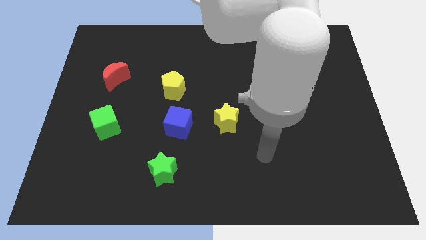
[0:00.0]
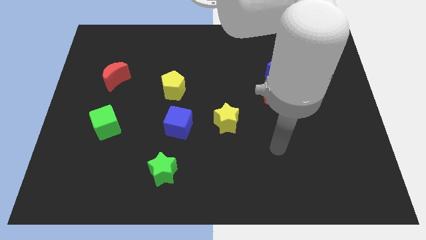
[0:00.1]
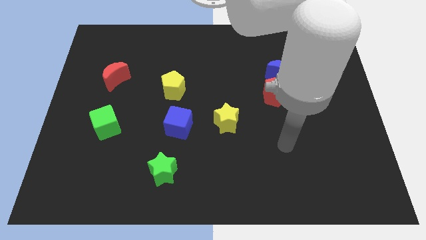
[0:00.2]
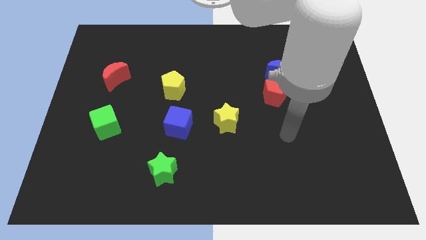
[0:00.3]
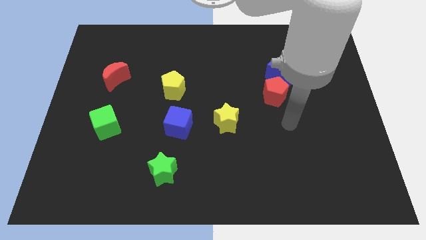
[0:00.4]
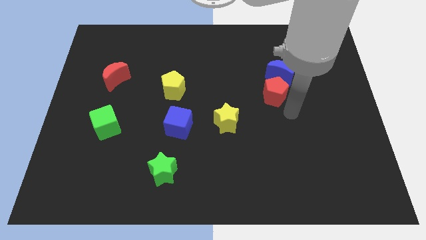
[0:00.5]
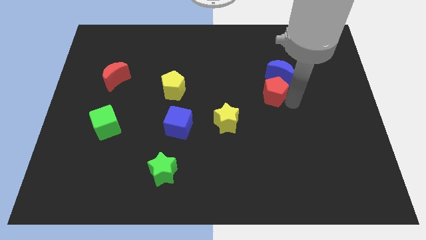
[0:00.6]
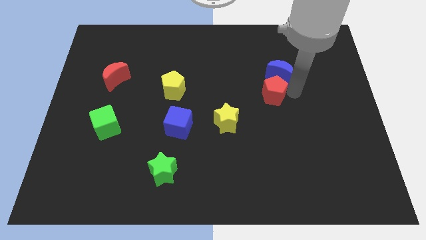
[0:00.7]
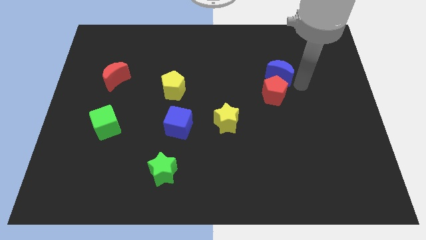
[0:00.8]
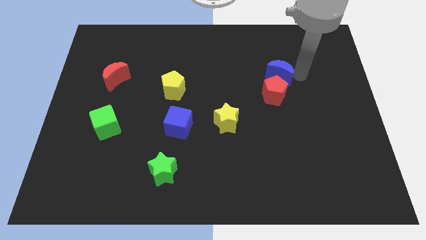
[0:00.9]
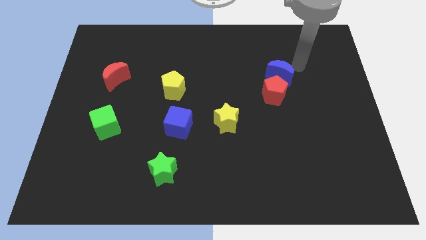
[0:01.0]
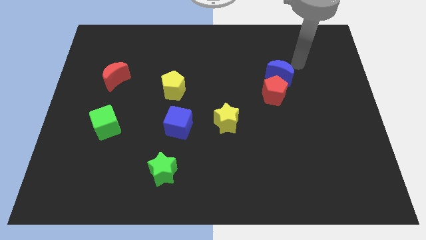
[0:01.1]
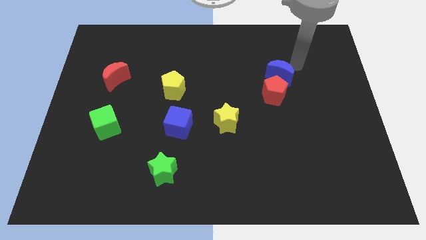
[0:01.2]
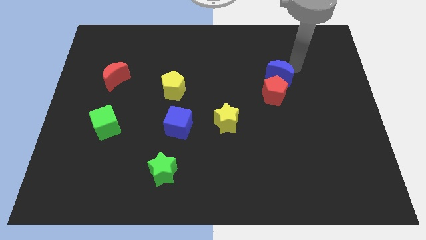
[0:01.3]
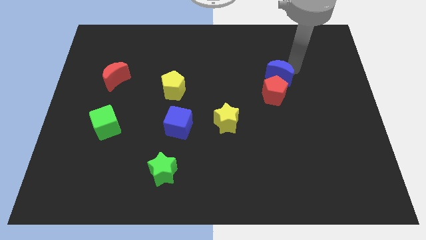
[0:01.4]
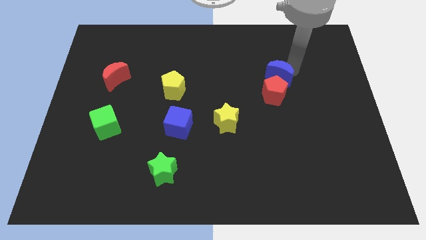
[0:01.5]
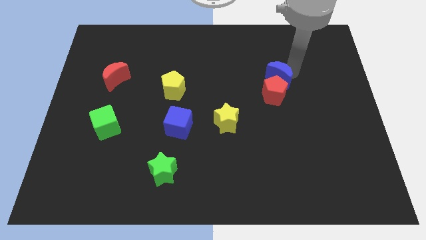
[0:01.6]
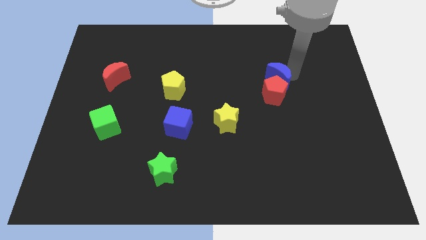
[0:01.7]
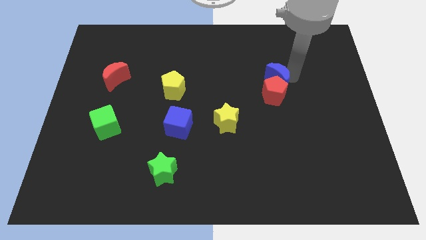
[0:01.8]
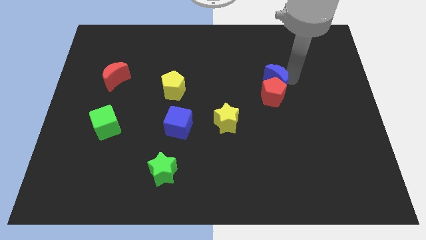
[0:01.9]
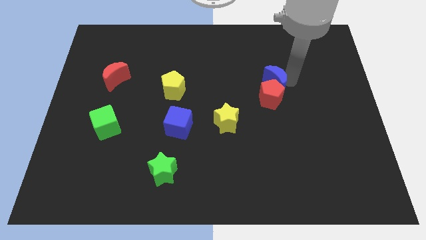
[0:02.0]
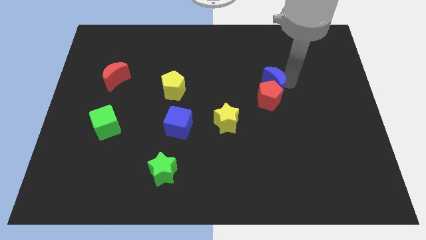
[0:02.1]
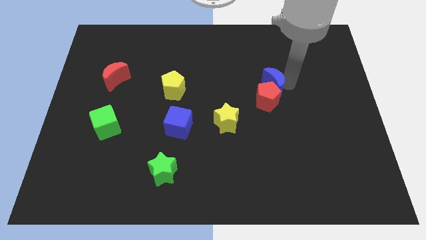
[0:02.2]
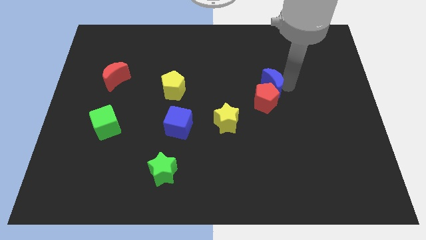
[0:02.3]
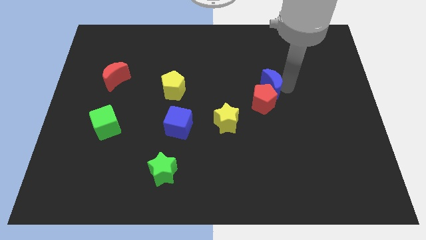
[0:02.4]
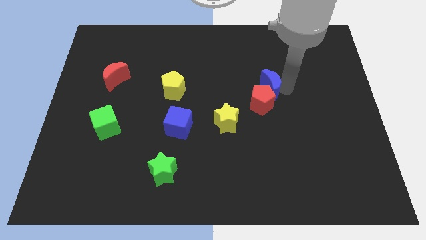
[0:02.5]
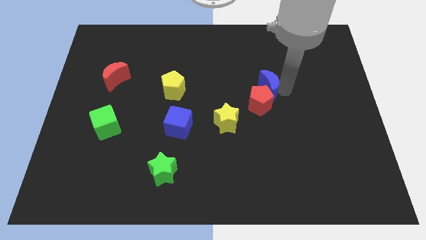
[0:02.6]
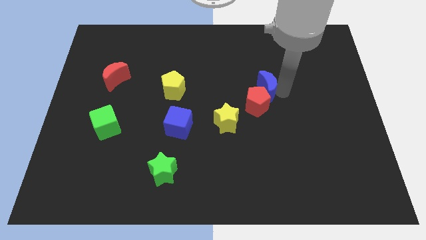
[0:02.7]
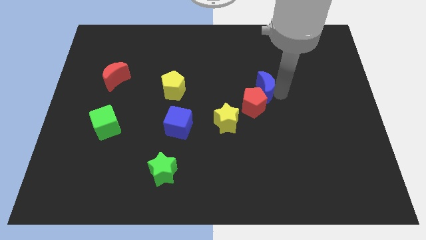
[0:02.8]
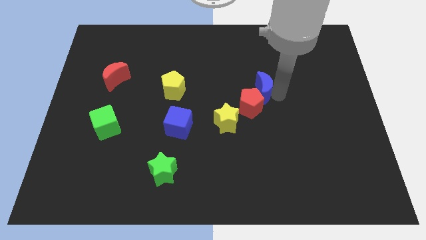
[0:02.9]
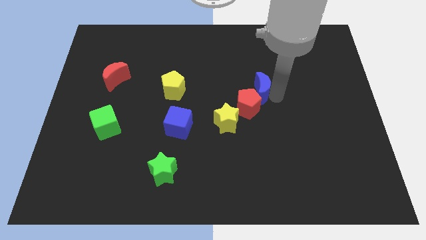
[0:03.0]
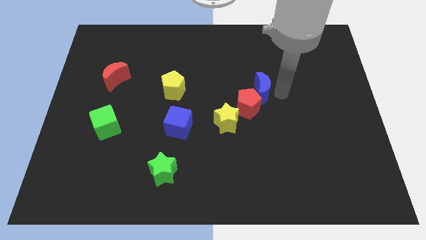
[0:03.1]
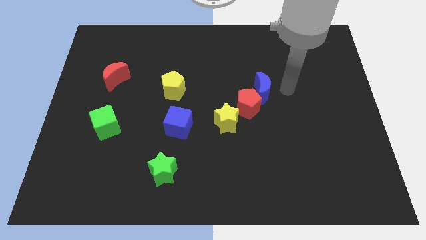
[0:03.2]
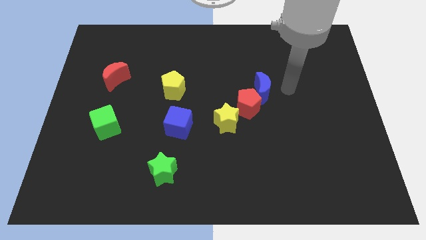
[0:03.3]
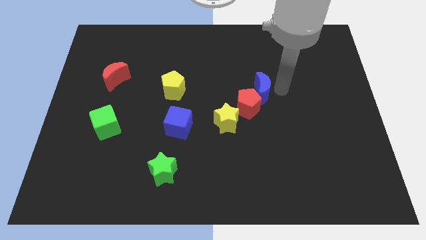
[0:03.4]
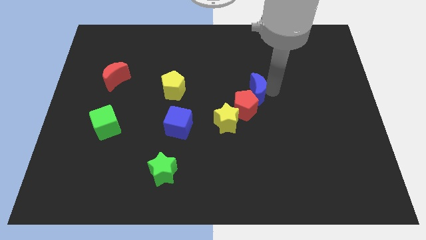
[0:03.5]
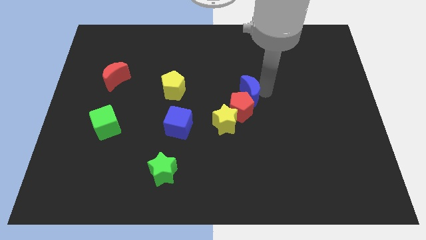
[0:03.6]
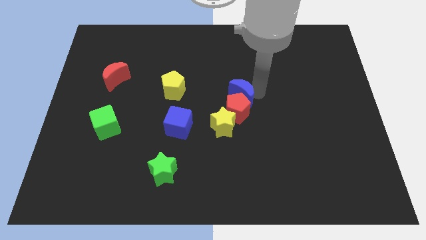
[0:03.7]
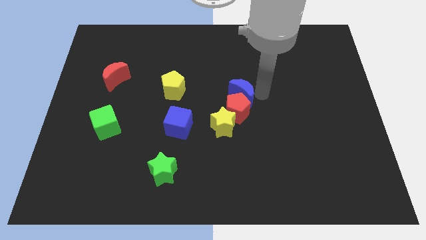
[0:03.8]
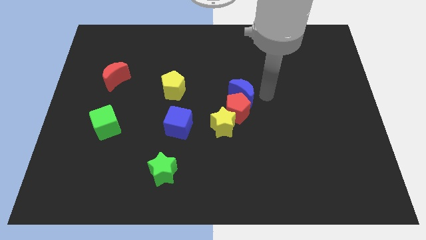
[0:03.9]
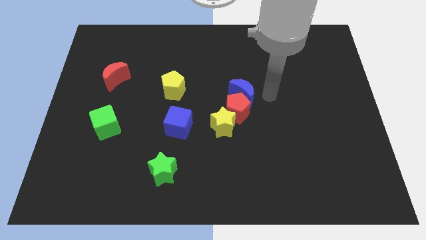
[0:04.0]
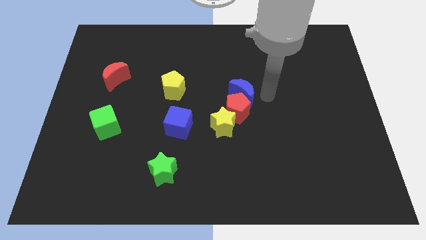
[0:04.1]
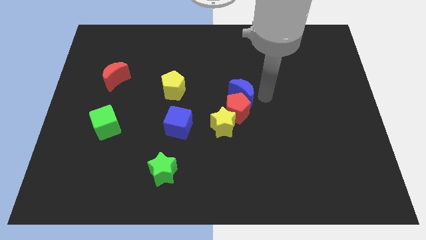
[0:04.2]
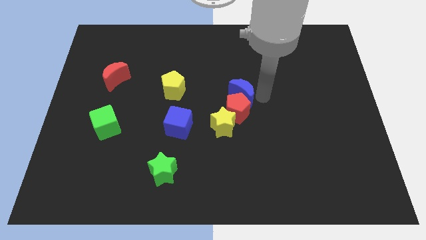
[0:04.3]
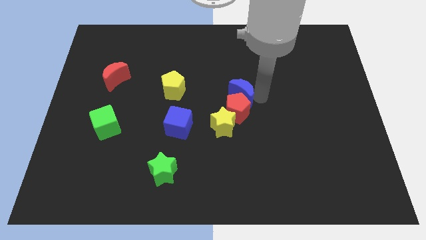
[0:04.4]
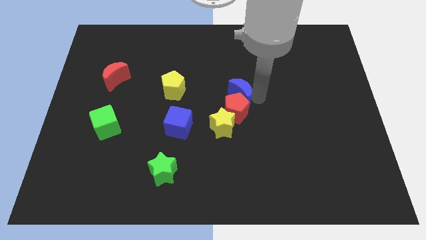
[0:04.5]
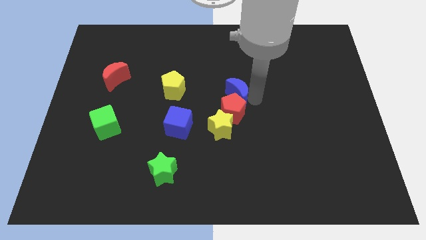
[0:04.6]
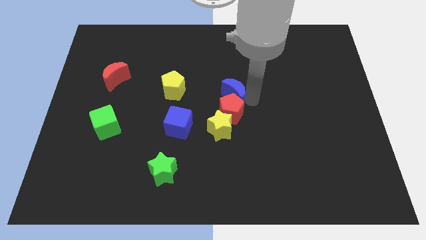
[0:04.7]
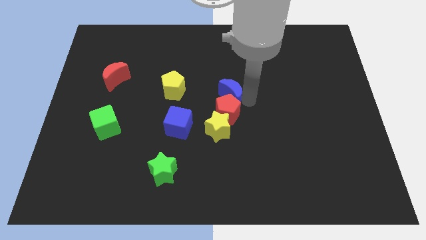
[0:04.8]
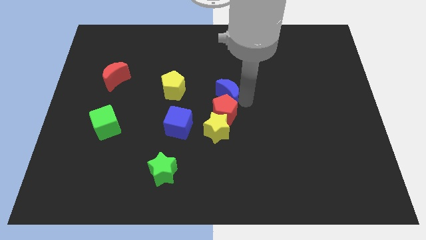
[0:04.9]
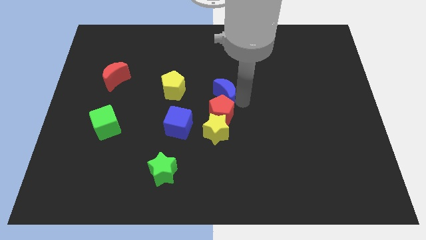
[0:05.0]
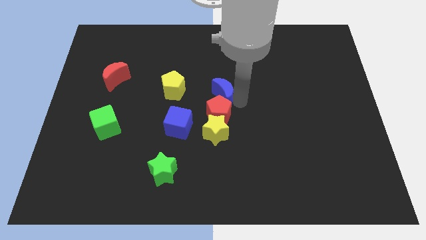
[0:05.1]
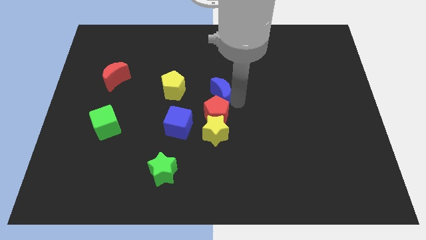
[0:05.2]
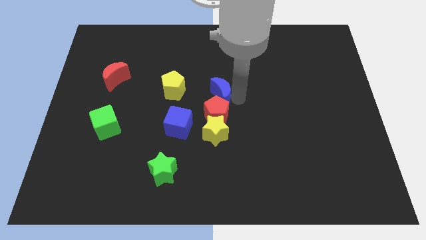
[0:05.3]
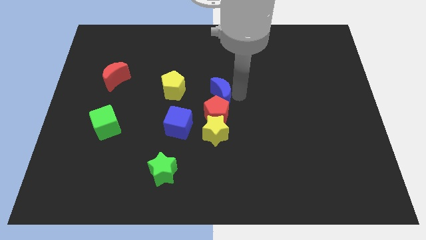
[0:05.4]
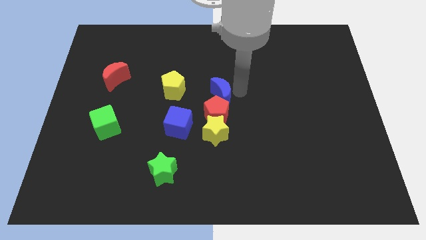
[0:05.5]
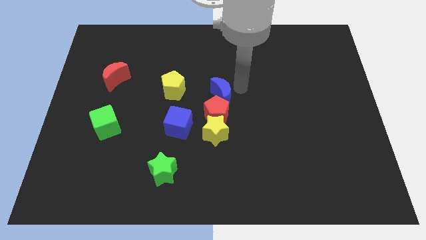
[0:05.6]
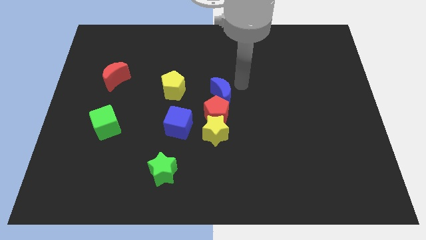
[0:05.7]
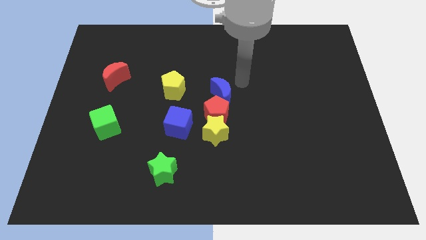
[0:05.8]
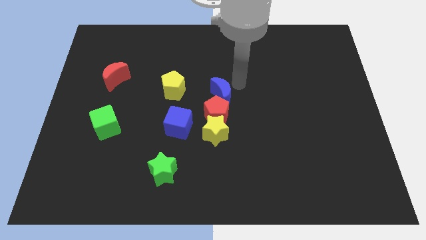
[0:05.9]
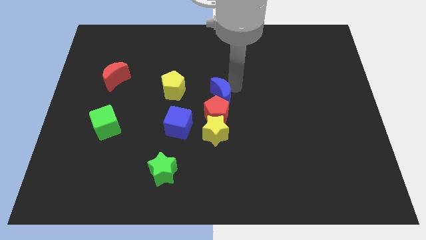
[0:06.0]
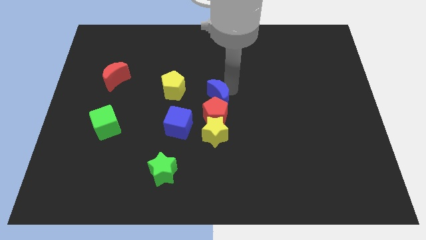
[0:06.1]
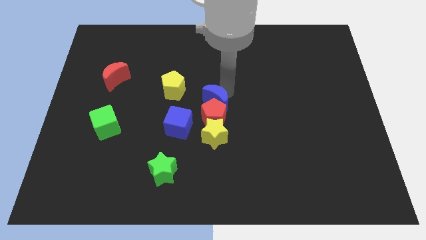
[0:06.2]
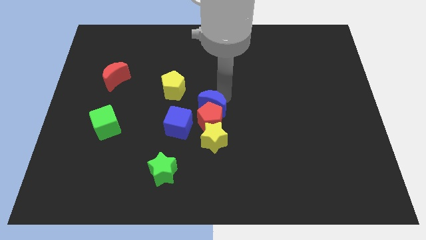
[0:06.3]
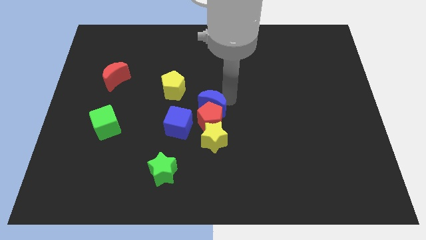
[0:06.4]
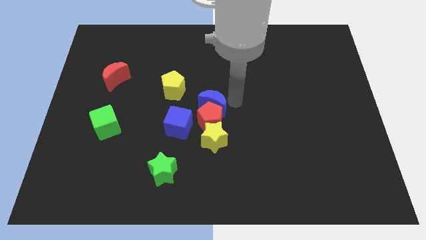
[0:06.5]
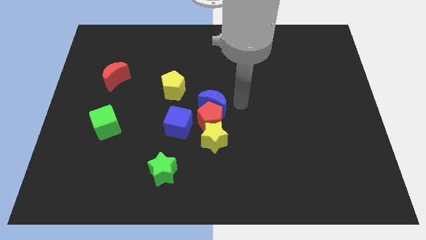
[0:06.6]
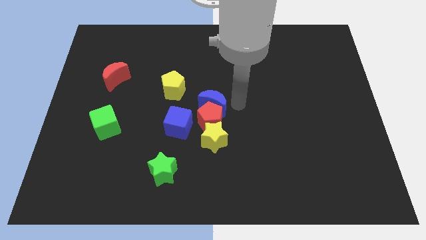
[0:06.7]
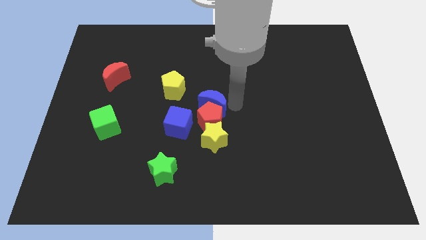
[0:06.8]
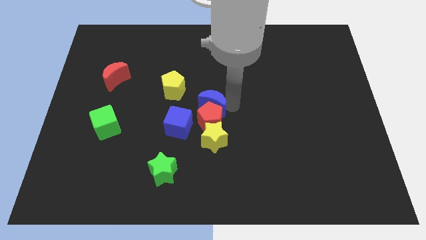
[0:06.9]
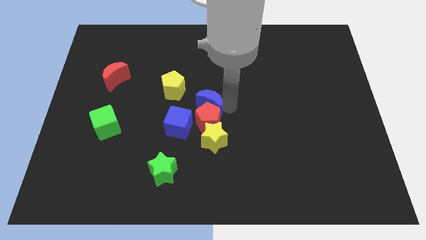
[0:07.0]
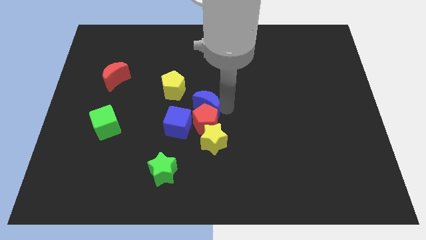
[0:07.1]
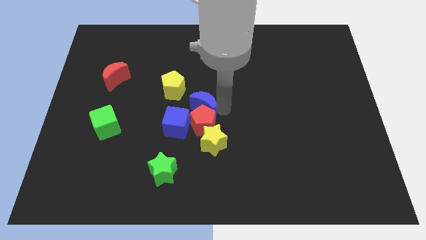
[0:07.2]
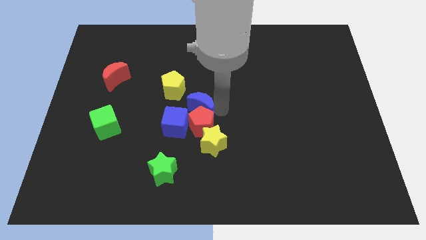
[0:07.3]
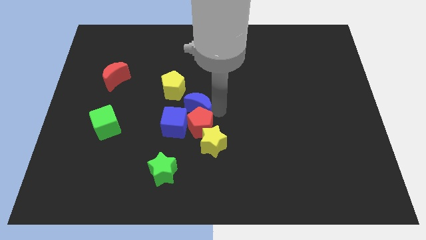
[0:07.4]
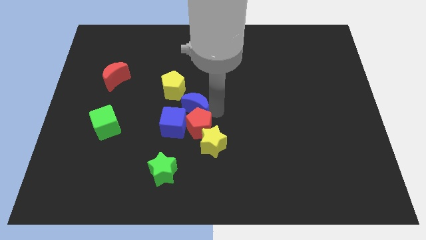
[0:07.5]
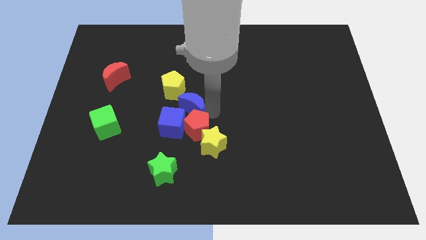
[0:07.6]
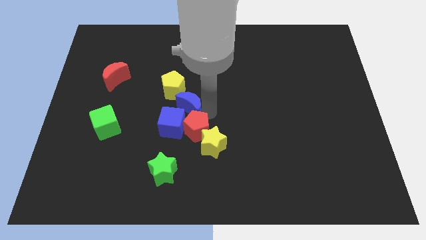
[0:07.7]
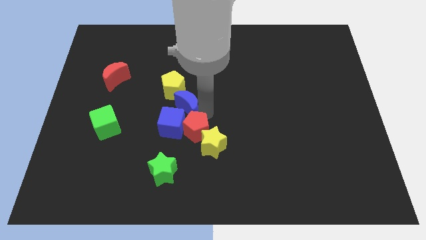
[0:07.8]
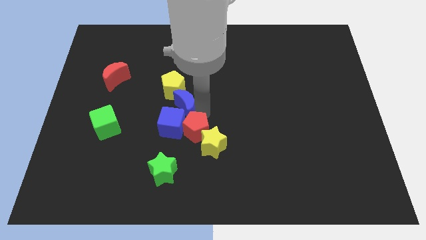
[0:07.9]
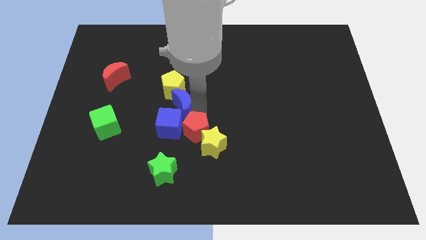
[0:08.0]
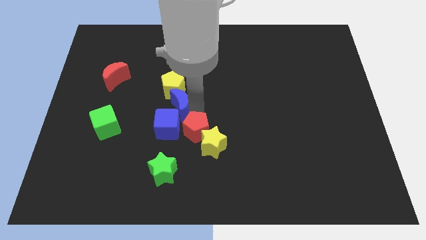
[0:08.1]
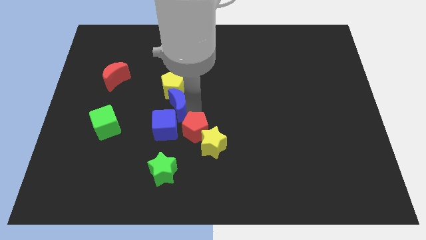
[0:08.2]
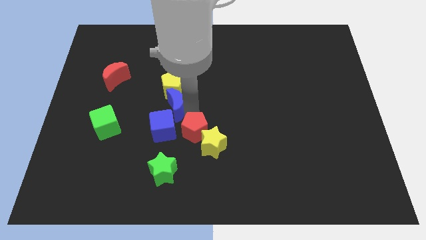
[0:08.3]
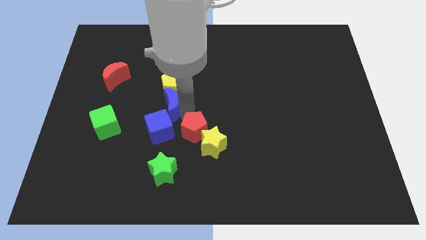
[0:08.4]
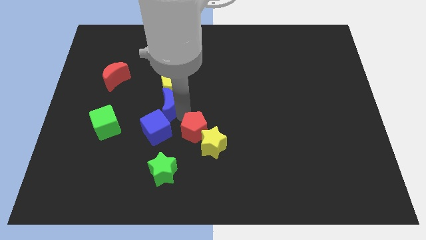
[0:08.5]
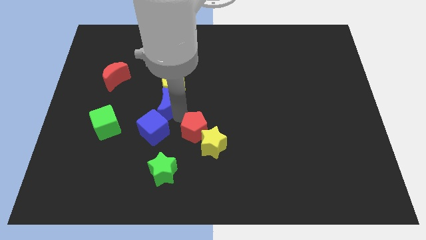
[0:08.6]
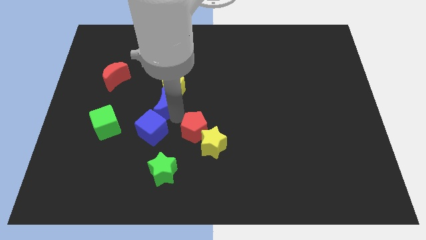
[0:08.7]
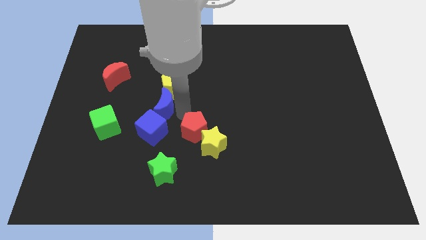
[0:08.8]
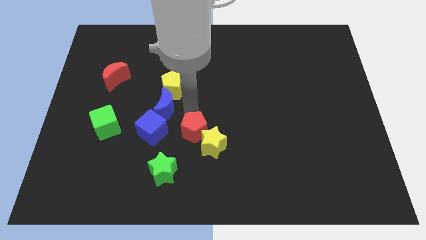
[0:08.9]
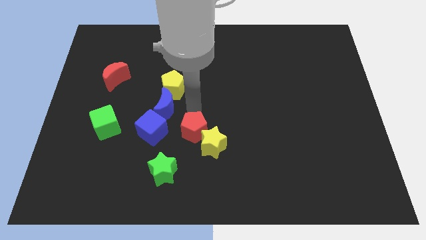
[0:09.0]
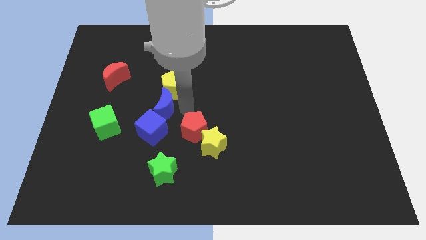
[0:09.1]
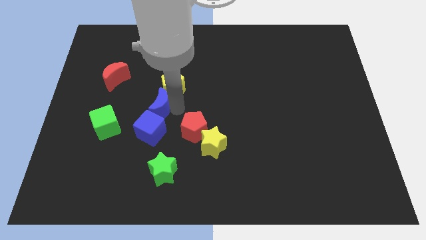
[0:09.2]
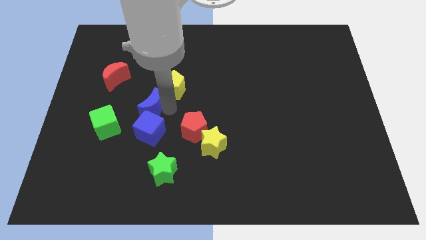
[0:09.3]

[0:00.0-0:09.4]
slide the blue moon diagonally up and to the right of the green cube
